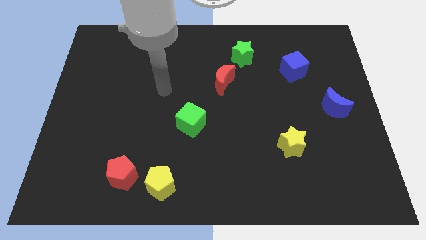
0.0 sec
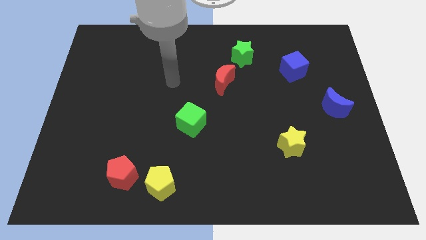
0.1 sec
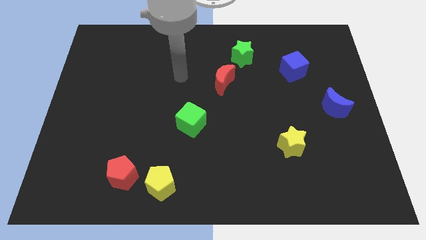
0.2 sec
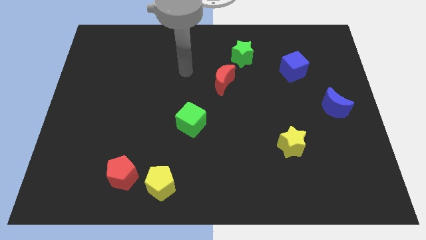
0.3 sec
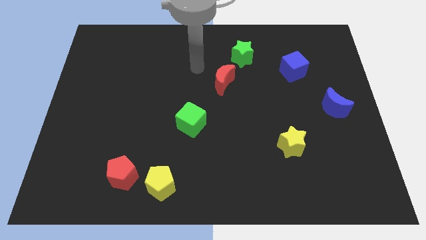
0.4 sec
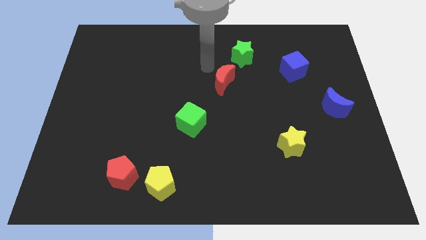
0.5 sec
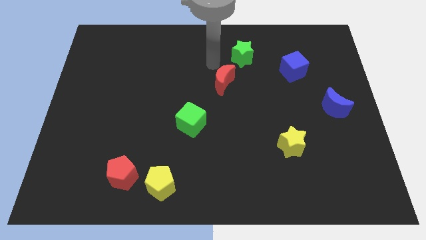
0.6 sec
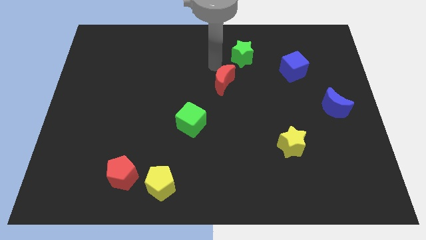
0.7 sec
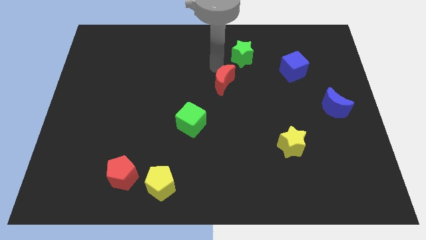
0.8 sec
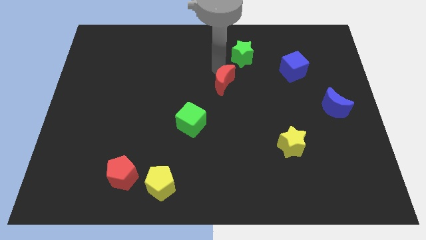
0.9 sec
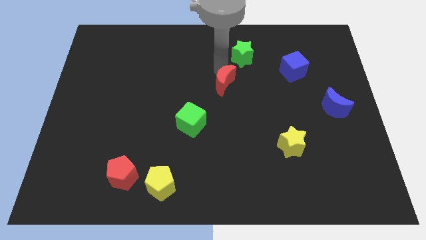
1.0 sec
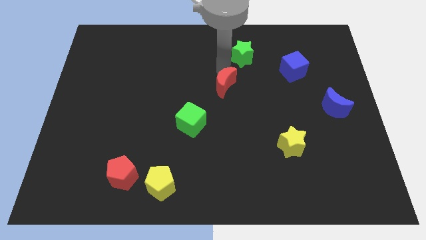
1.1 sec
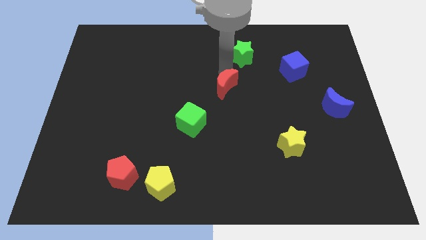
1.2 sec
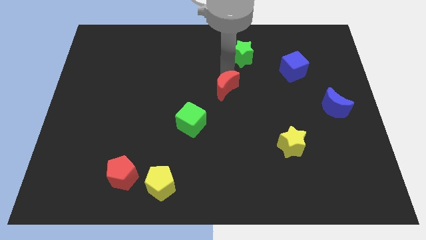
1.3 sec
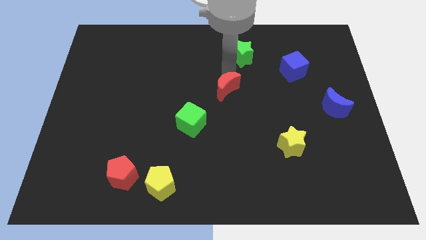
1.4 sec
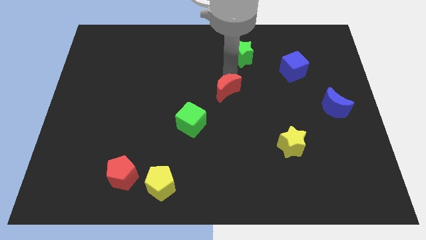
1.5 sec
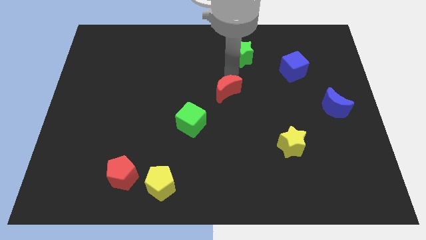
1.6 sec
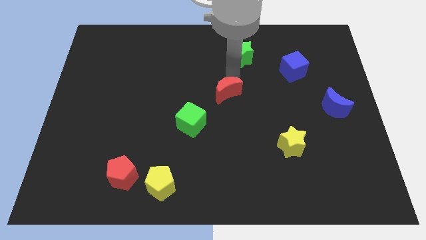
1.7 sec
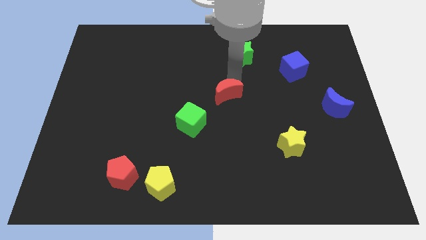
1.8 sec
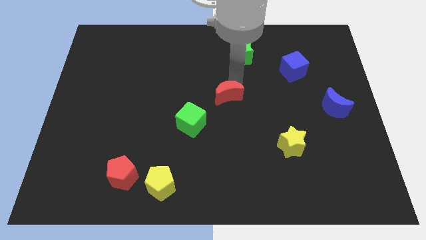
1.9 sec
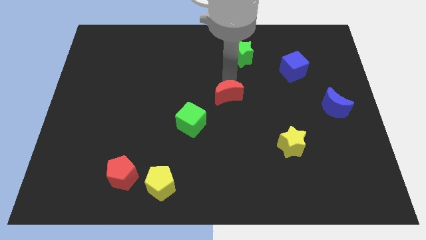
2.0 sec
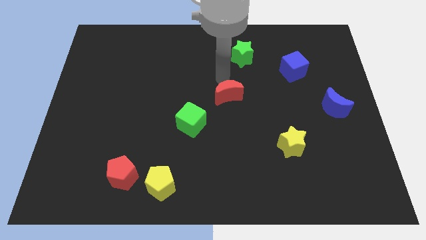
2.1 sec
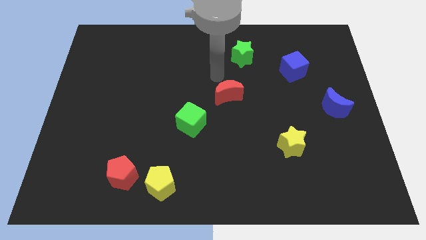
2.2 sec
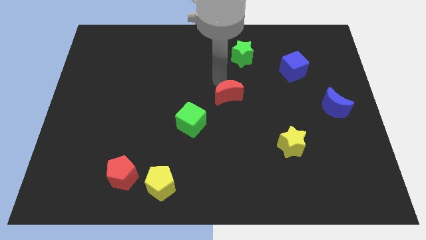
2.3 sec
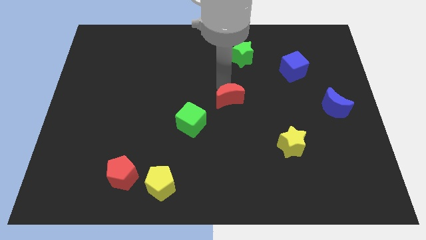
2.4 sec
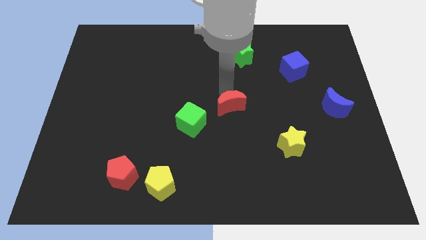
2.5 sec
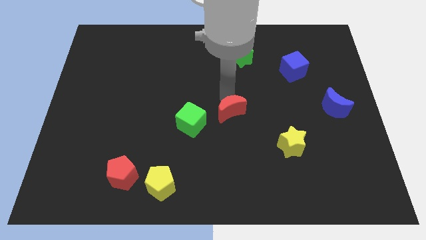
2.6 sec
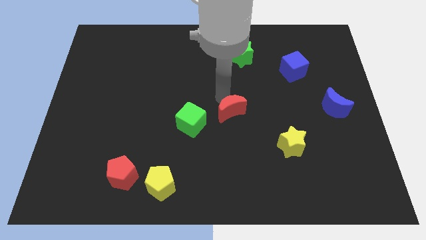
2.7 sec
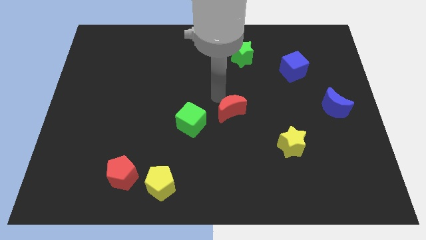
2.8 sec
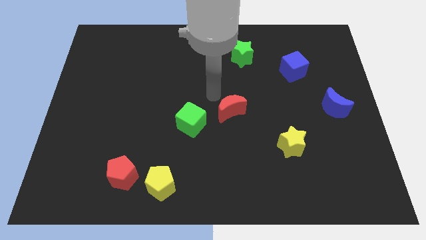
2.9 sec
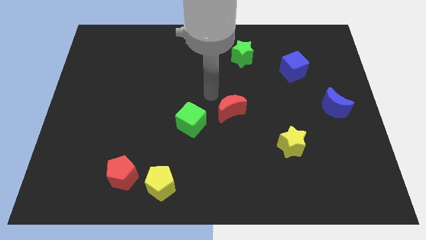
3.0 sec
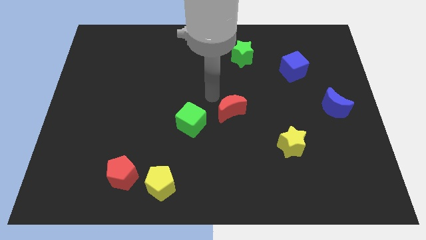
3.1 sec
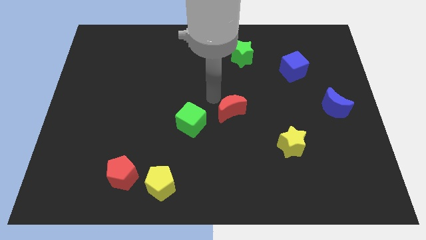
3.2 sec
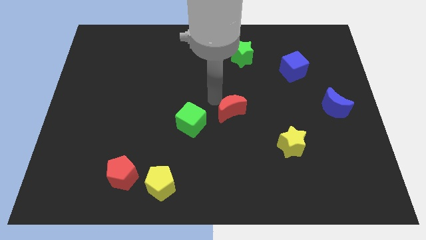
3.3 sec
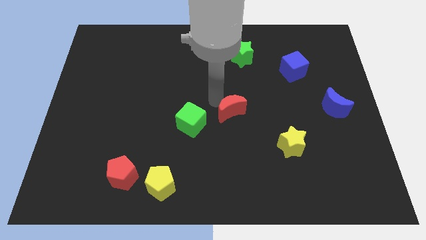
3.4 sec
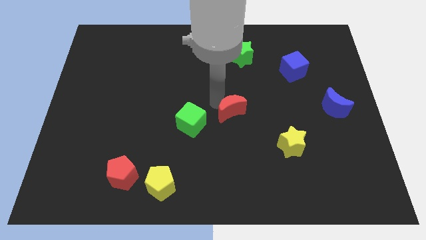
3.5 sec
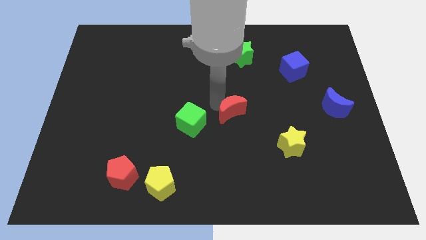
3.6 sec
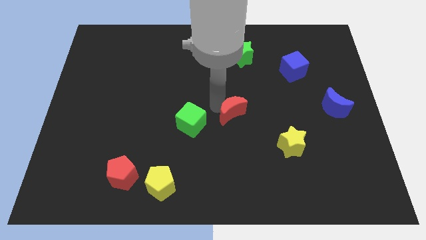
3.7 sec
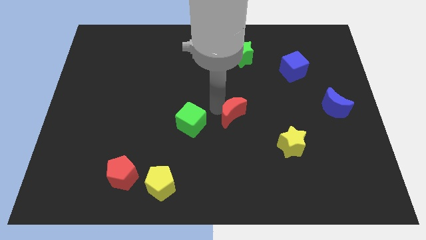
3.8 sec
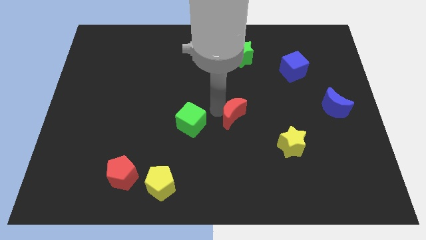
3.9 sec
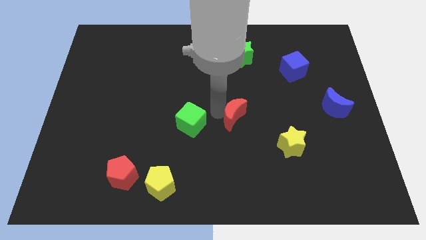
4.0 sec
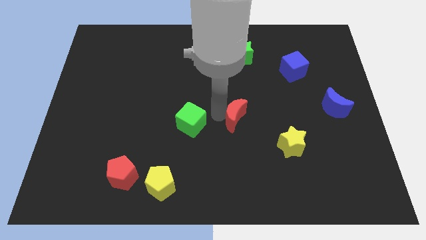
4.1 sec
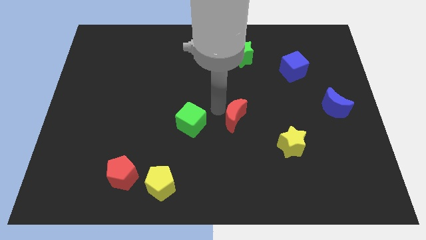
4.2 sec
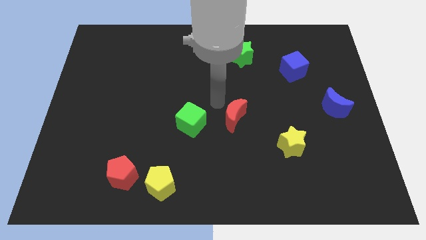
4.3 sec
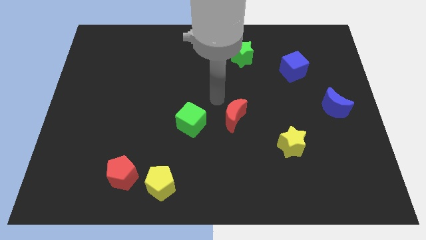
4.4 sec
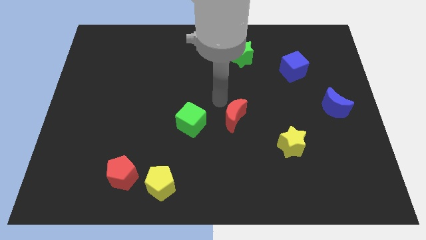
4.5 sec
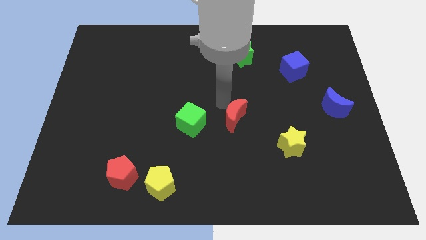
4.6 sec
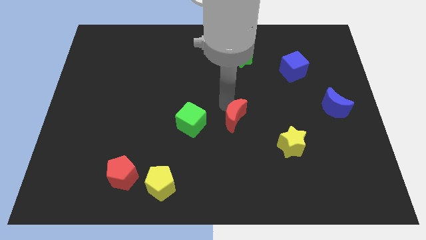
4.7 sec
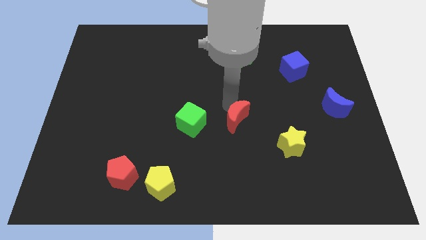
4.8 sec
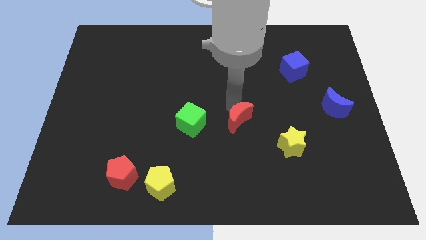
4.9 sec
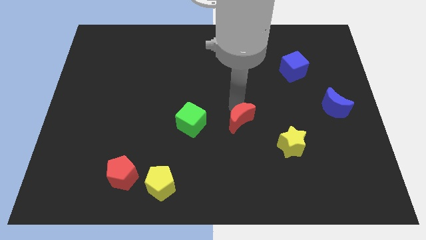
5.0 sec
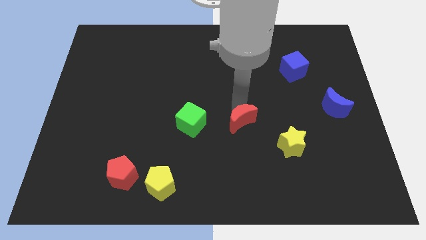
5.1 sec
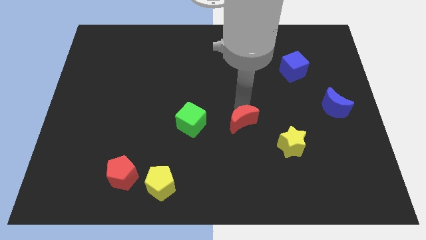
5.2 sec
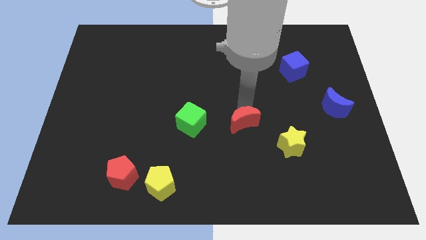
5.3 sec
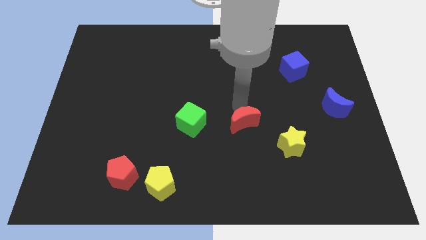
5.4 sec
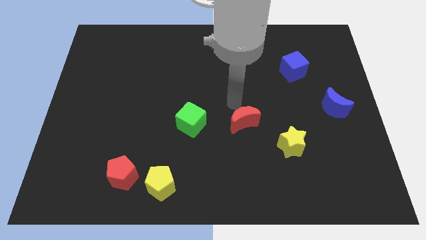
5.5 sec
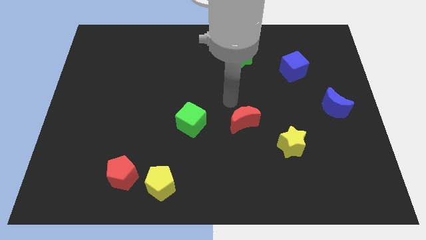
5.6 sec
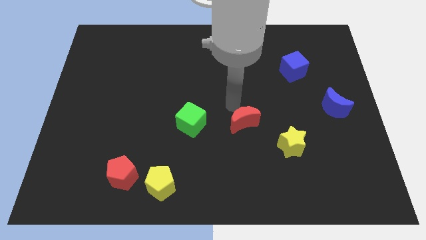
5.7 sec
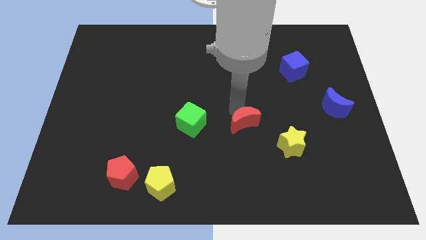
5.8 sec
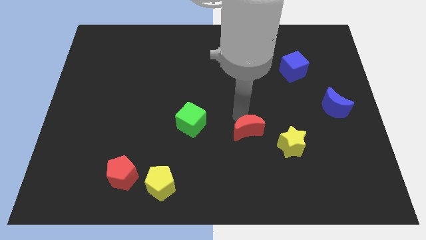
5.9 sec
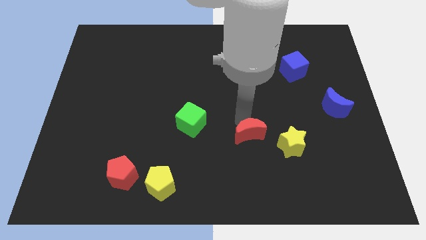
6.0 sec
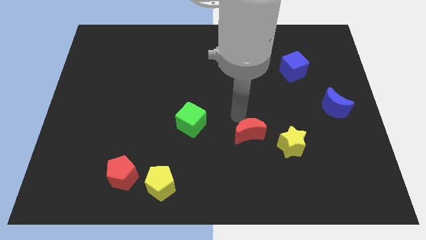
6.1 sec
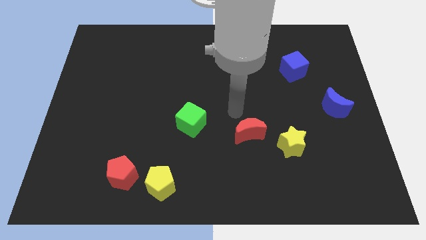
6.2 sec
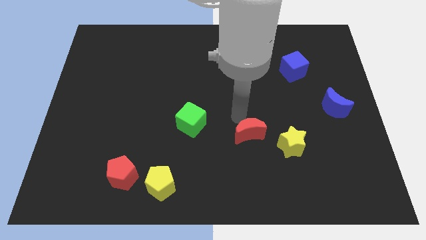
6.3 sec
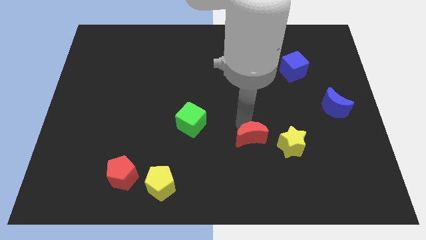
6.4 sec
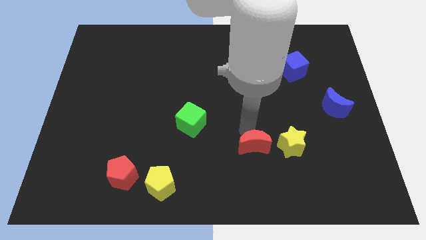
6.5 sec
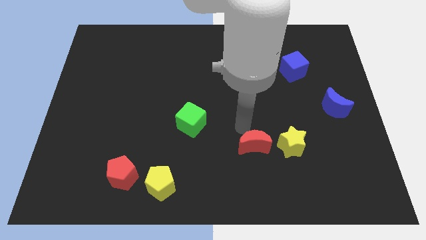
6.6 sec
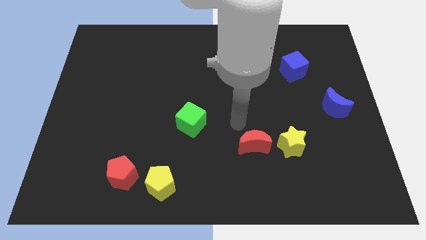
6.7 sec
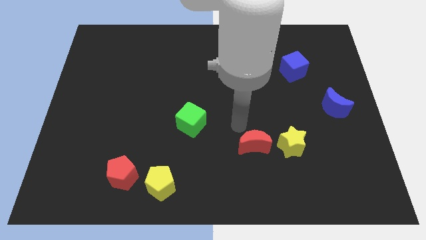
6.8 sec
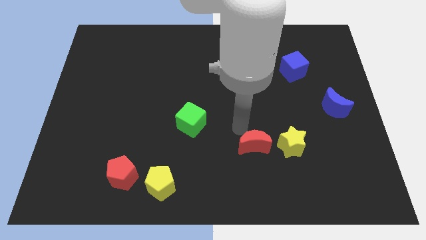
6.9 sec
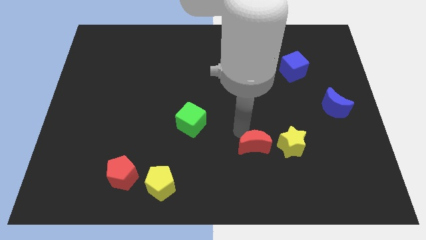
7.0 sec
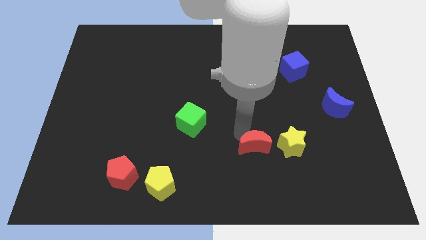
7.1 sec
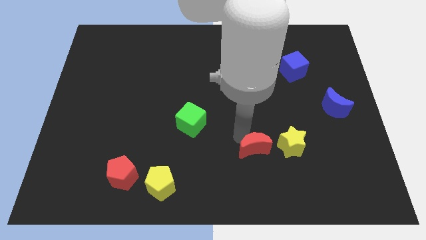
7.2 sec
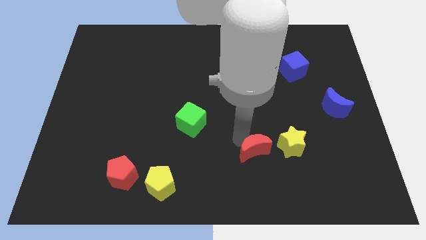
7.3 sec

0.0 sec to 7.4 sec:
slide the red moon to the bottom left of the yellow star

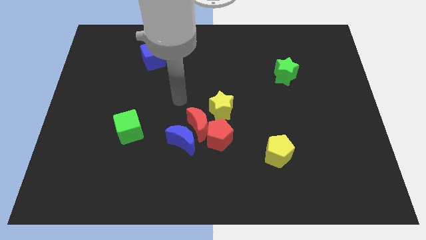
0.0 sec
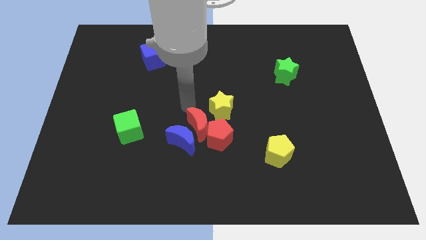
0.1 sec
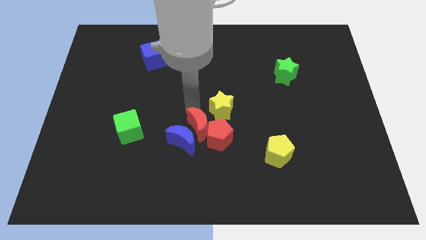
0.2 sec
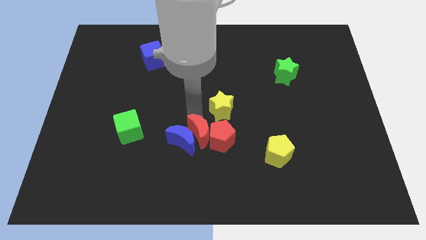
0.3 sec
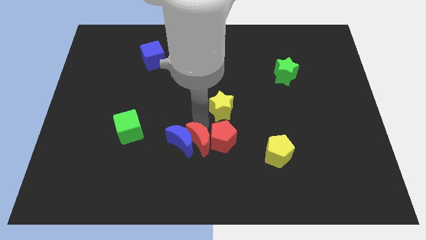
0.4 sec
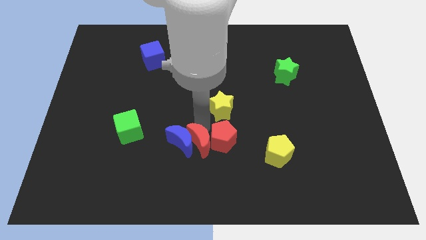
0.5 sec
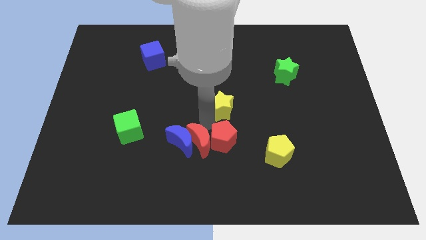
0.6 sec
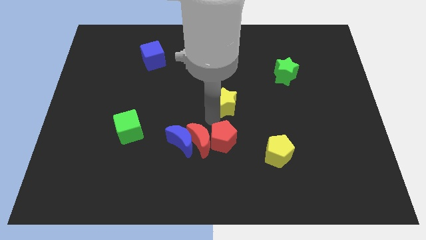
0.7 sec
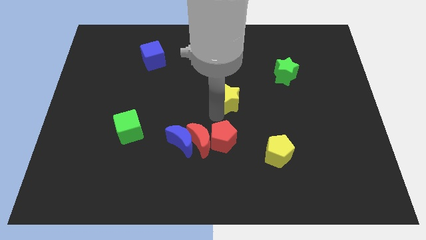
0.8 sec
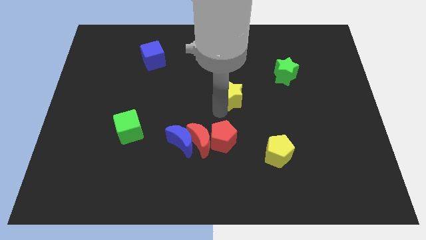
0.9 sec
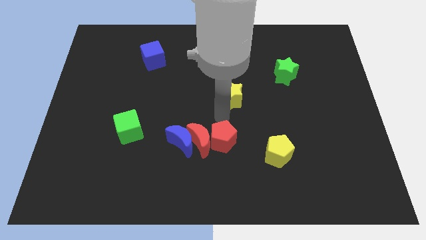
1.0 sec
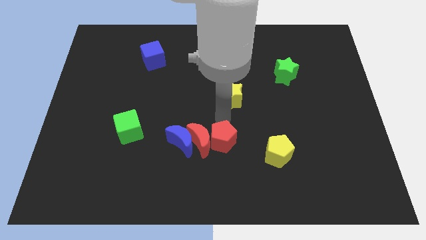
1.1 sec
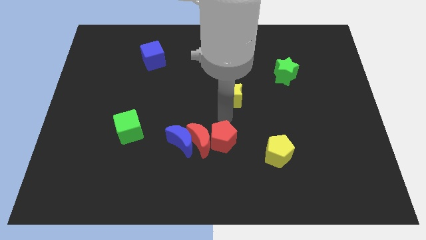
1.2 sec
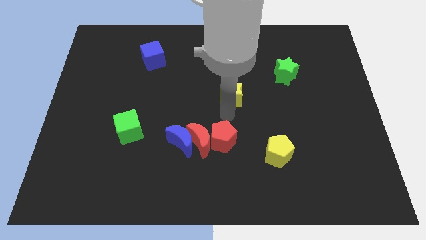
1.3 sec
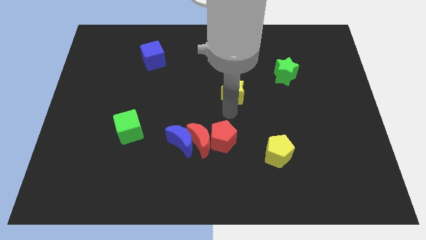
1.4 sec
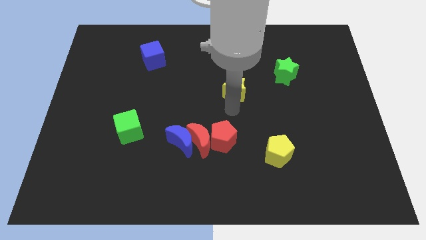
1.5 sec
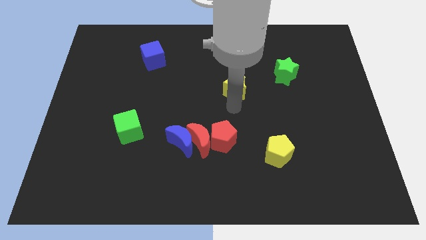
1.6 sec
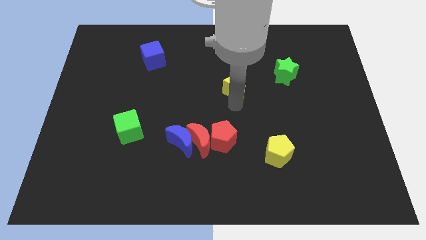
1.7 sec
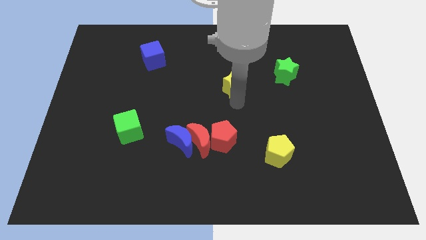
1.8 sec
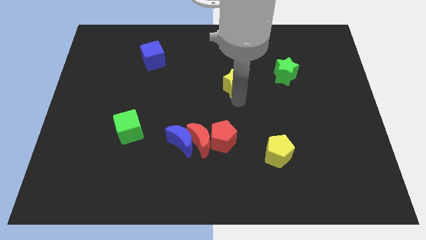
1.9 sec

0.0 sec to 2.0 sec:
push the yellow star to the left of the green star
